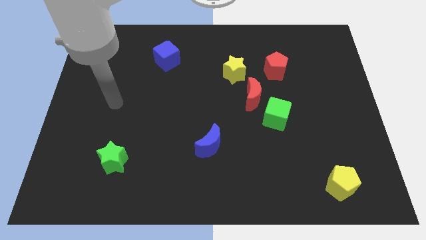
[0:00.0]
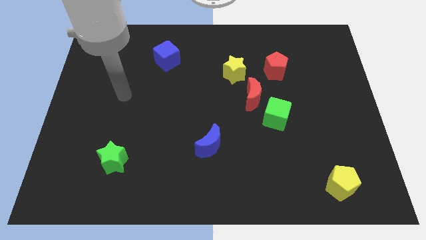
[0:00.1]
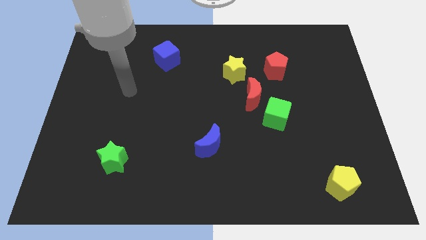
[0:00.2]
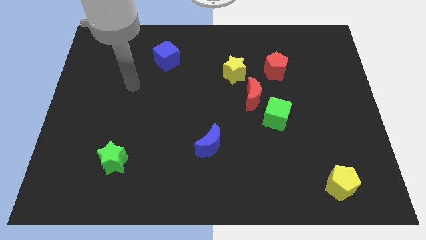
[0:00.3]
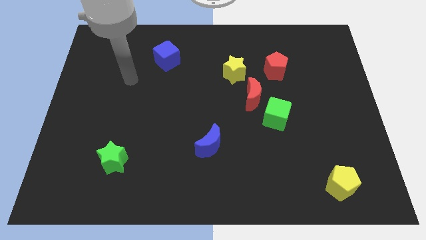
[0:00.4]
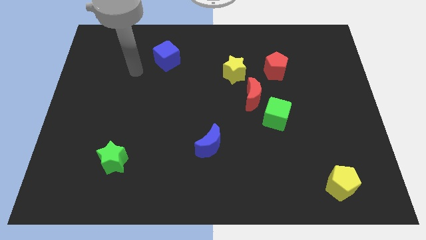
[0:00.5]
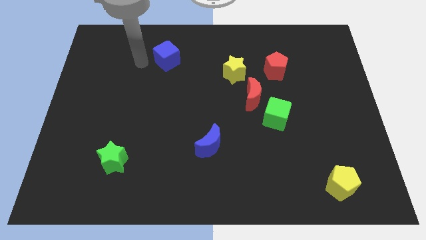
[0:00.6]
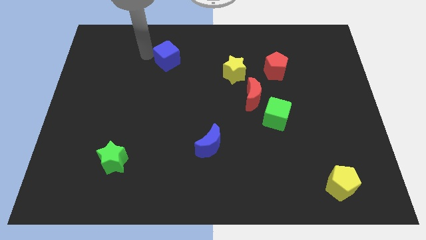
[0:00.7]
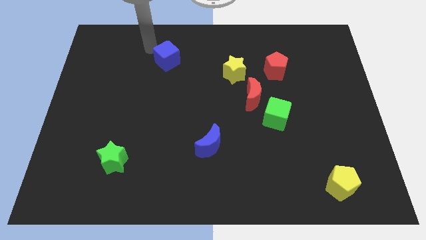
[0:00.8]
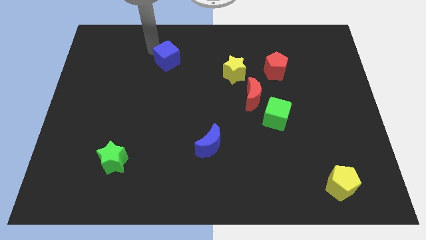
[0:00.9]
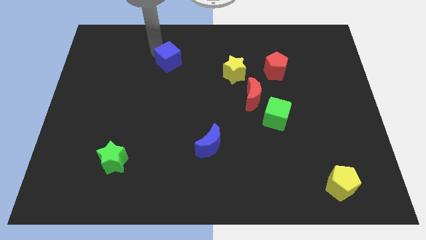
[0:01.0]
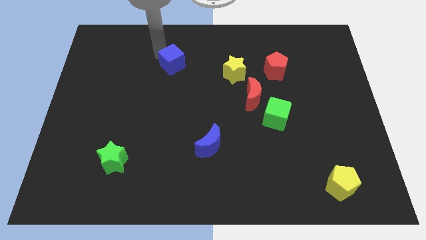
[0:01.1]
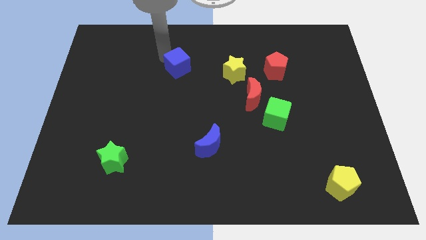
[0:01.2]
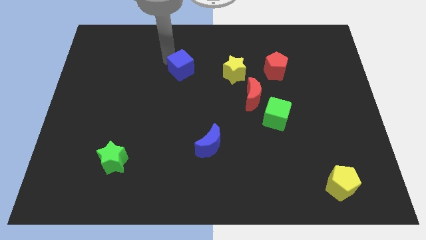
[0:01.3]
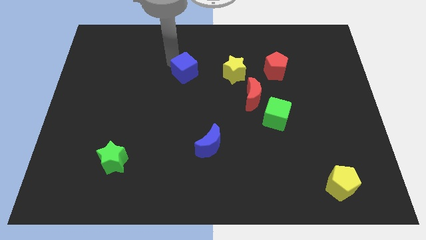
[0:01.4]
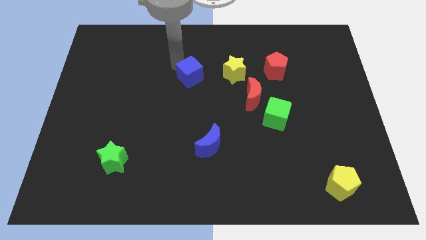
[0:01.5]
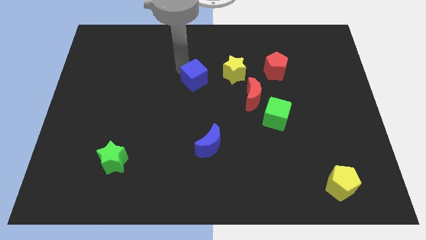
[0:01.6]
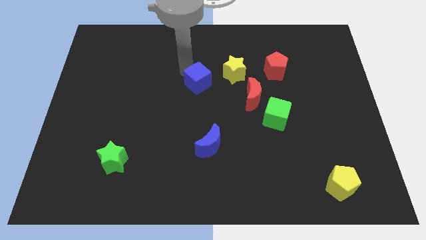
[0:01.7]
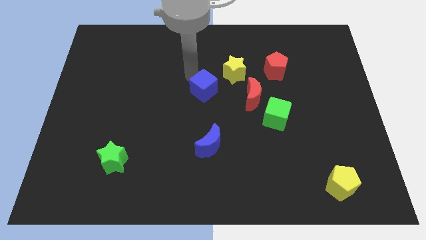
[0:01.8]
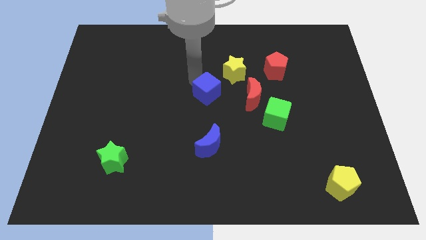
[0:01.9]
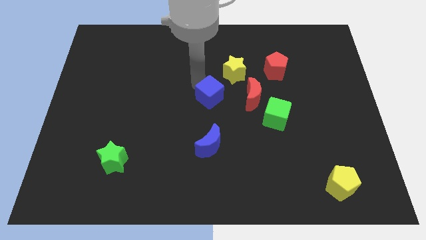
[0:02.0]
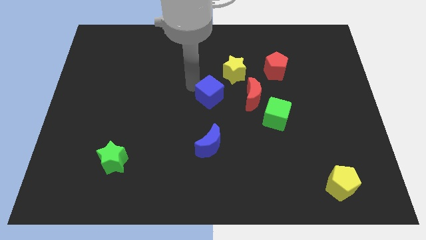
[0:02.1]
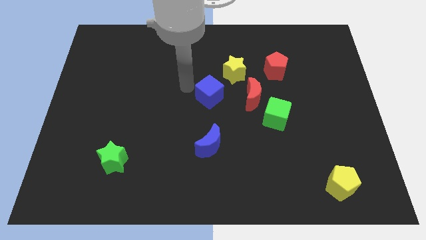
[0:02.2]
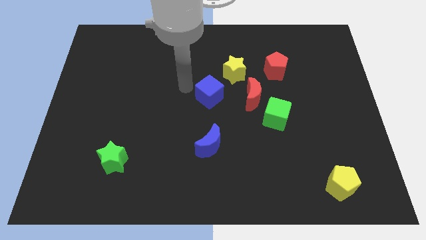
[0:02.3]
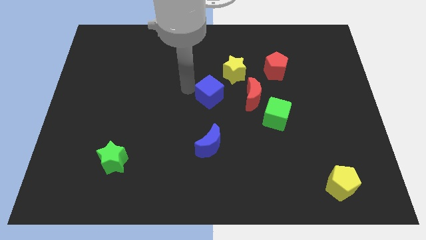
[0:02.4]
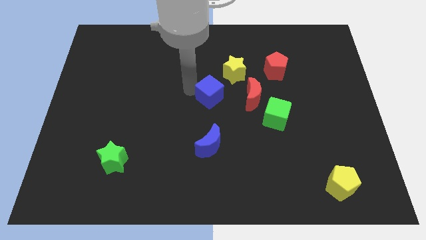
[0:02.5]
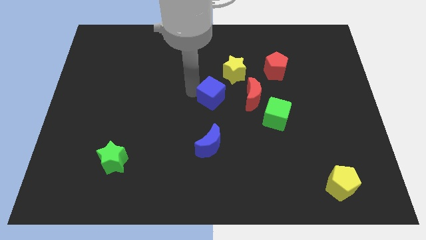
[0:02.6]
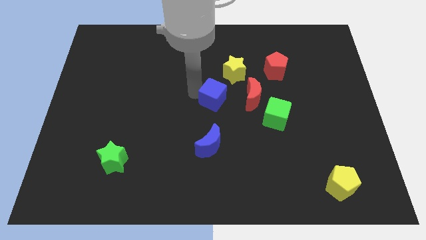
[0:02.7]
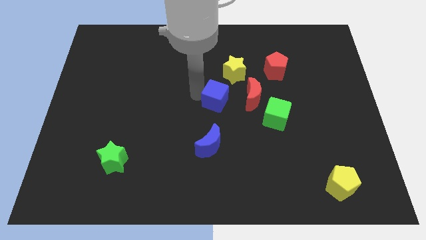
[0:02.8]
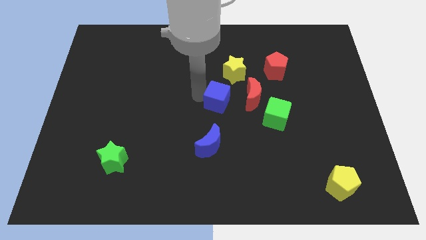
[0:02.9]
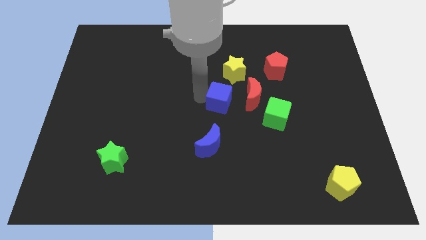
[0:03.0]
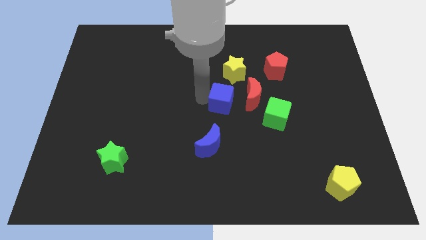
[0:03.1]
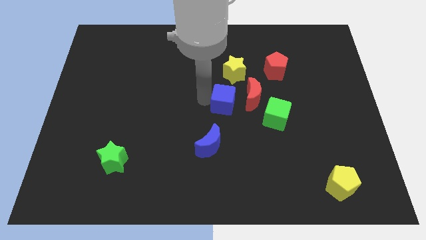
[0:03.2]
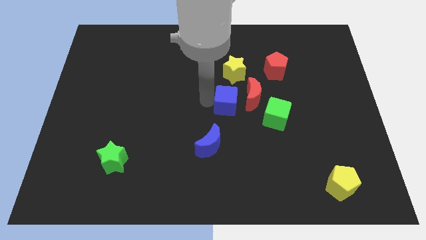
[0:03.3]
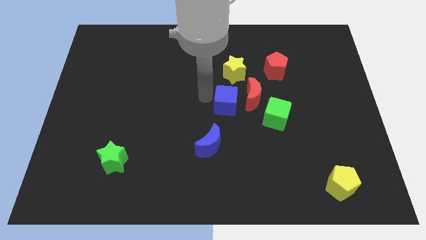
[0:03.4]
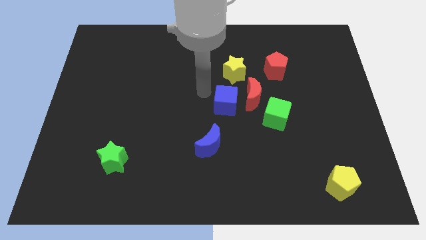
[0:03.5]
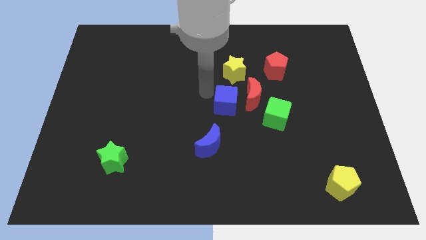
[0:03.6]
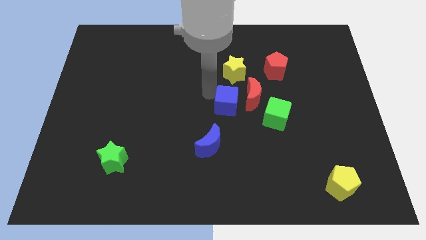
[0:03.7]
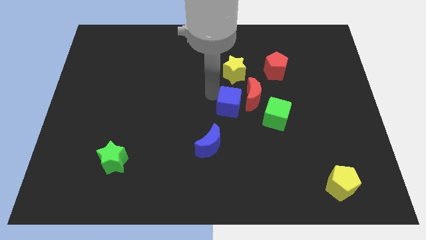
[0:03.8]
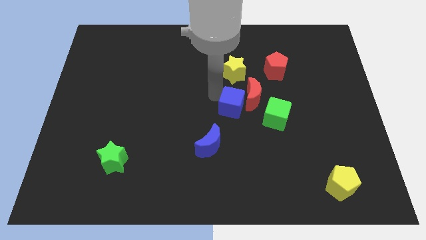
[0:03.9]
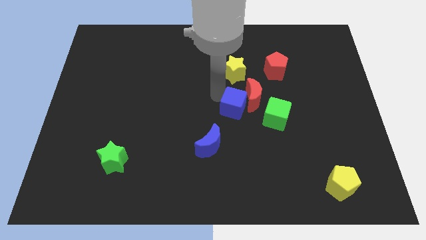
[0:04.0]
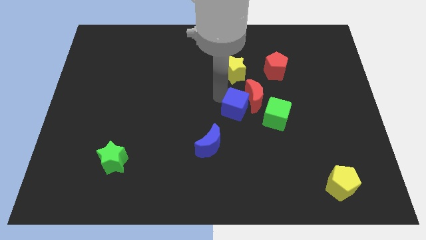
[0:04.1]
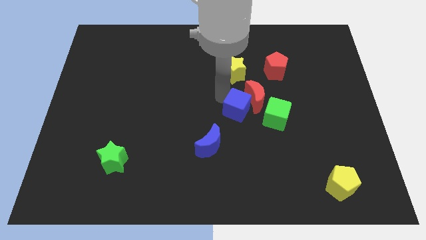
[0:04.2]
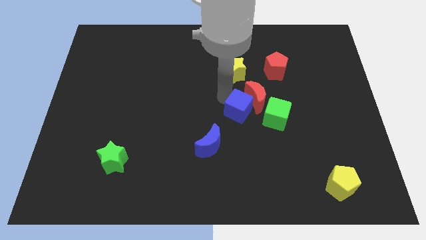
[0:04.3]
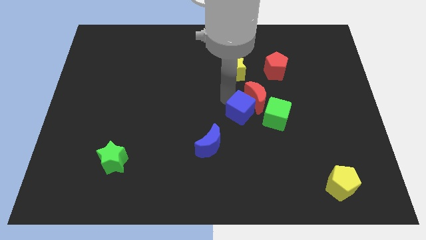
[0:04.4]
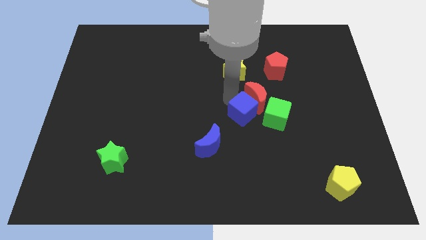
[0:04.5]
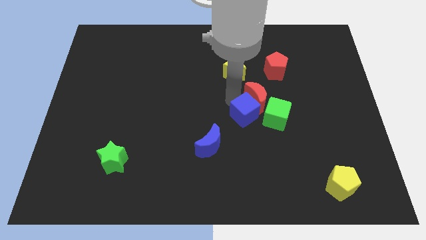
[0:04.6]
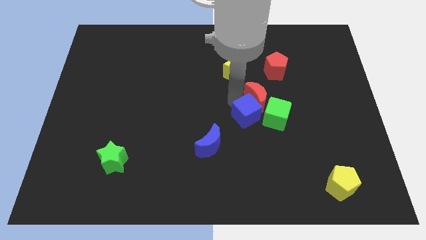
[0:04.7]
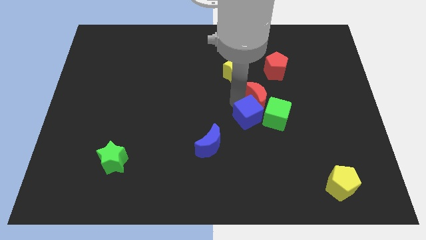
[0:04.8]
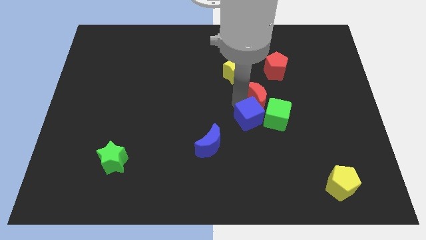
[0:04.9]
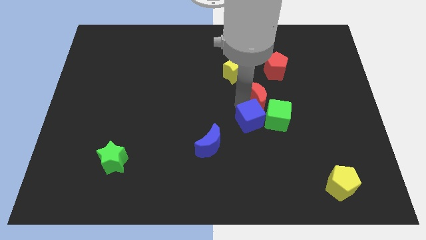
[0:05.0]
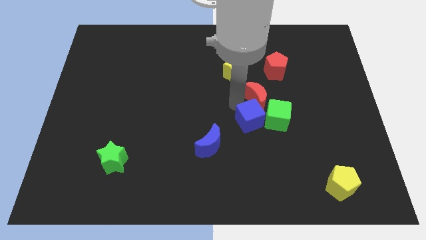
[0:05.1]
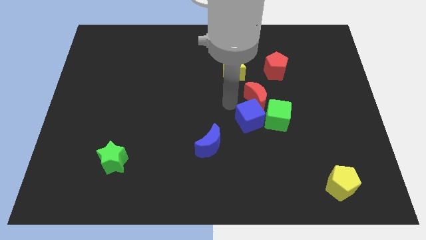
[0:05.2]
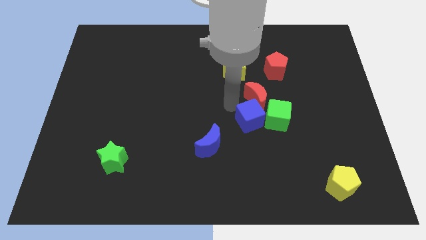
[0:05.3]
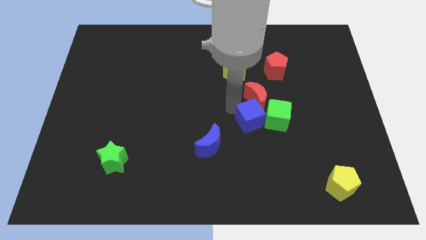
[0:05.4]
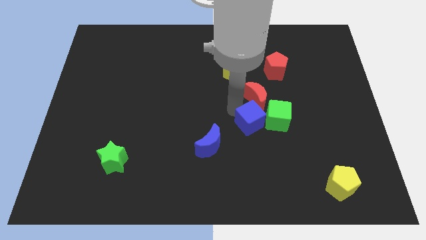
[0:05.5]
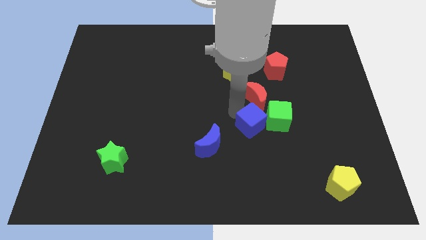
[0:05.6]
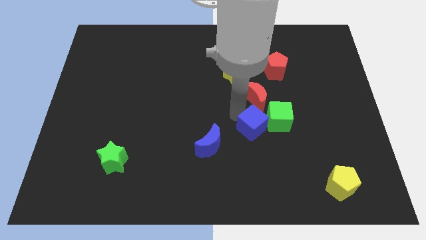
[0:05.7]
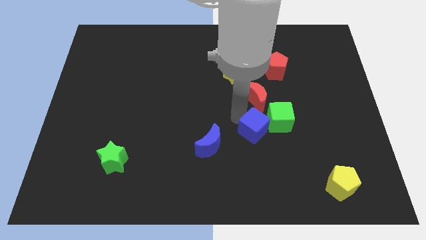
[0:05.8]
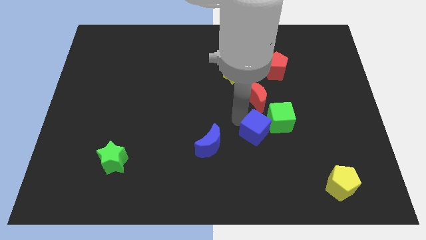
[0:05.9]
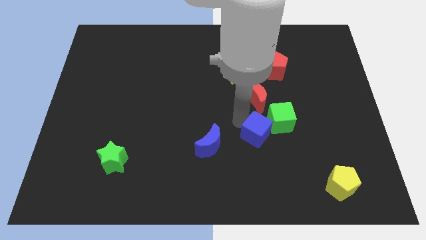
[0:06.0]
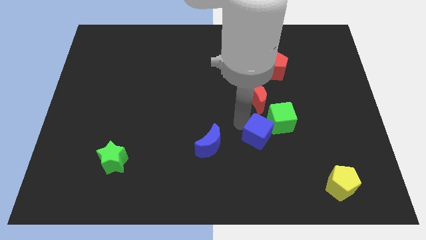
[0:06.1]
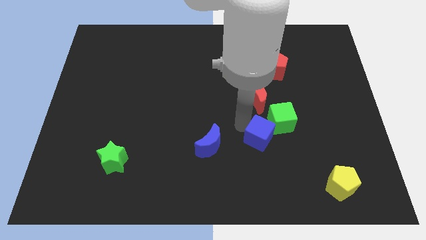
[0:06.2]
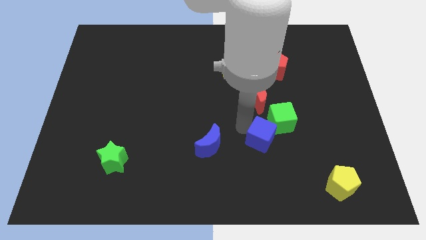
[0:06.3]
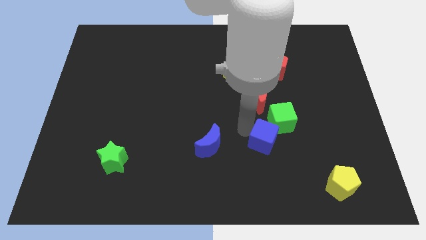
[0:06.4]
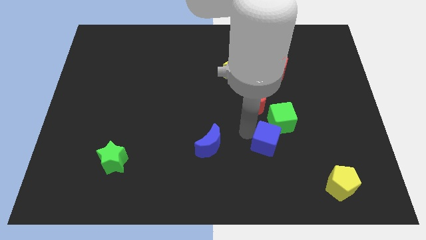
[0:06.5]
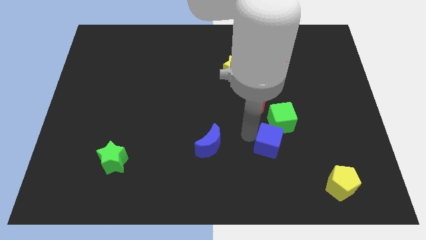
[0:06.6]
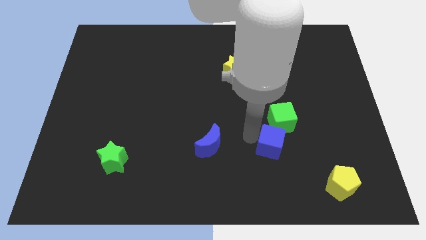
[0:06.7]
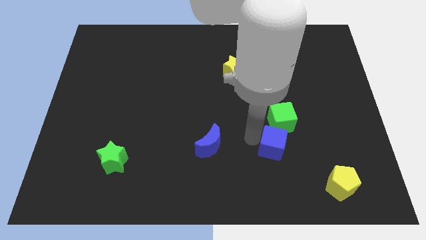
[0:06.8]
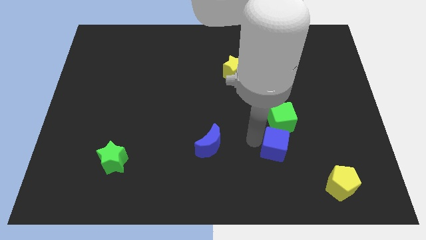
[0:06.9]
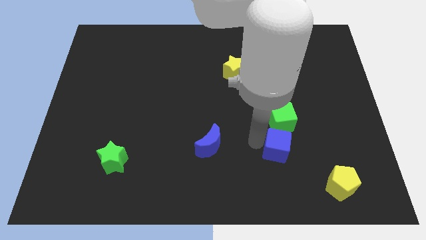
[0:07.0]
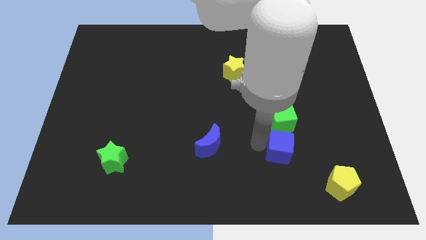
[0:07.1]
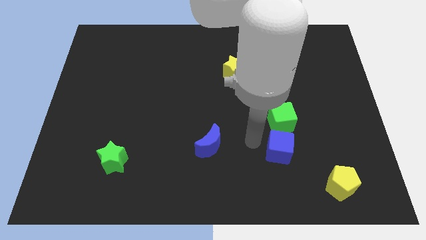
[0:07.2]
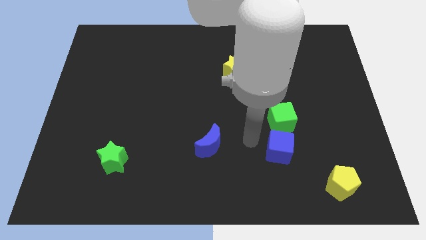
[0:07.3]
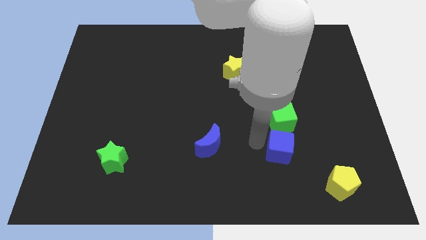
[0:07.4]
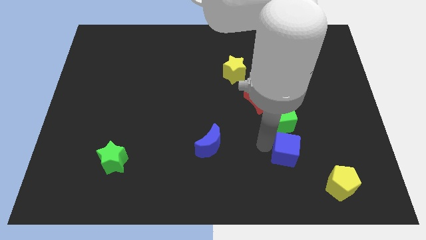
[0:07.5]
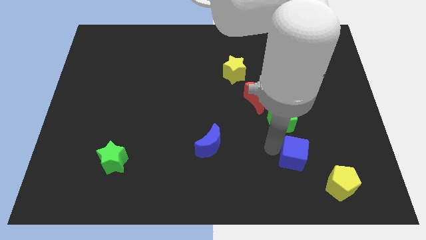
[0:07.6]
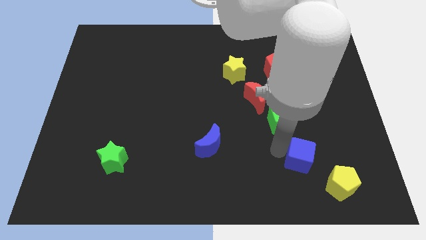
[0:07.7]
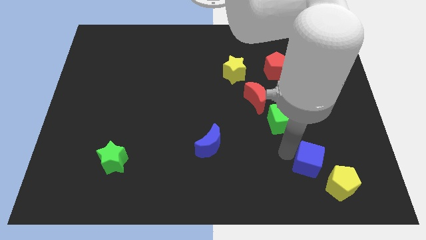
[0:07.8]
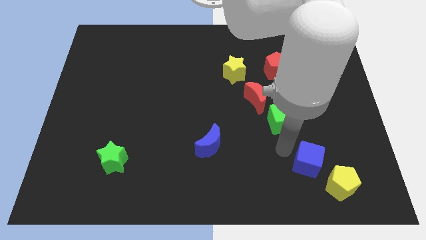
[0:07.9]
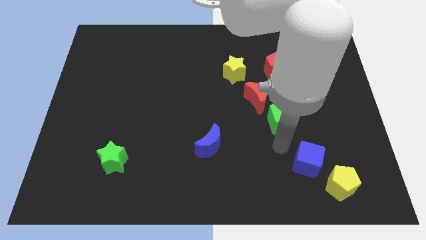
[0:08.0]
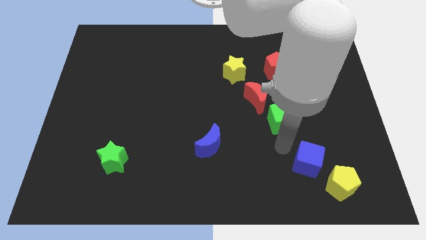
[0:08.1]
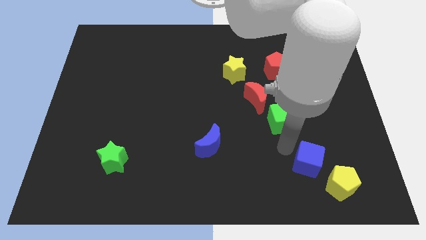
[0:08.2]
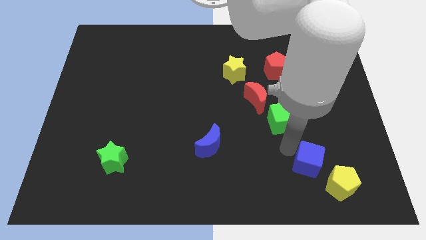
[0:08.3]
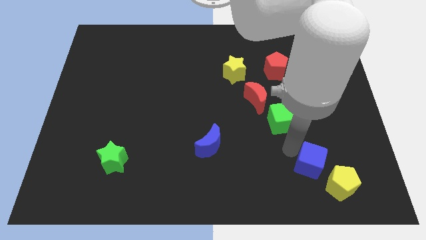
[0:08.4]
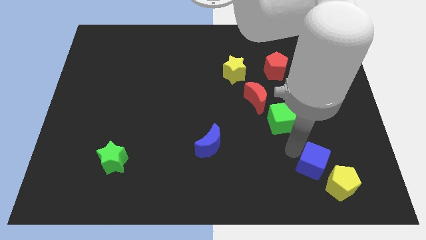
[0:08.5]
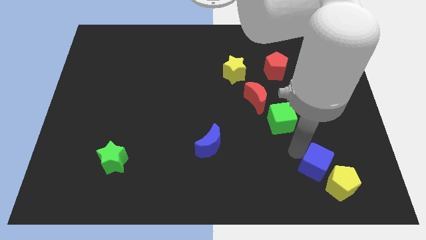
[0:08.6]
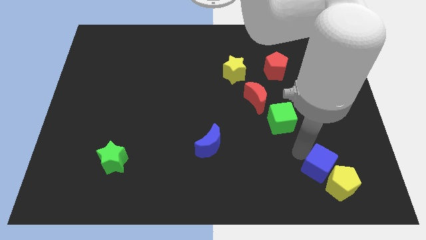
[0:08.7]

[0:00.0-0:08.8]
slide the blue cube towards the yellow pentagon
